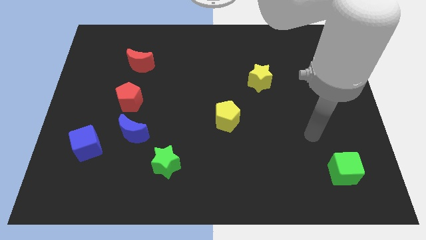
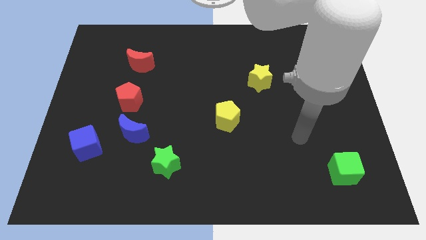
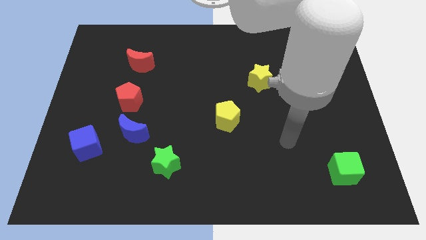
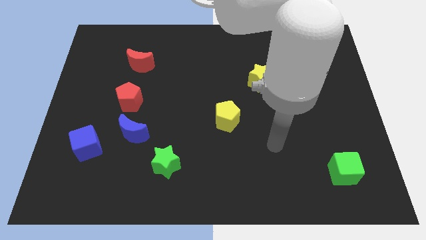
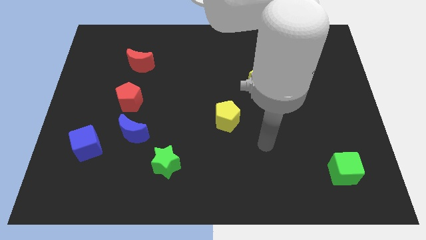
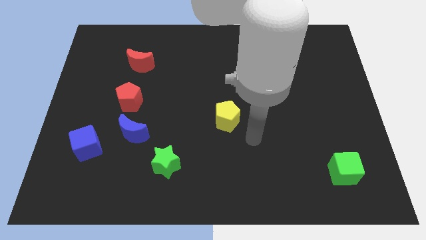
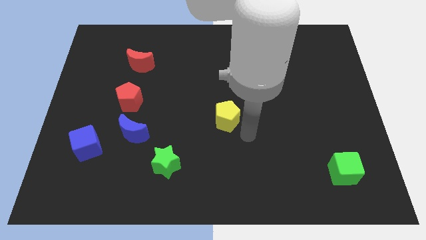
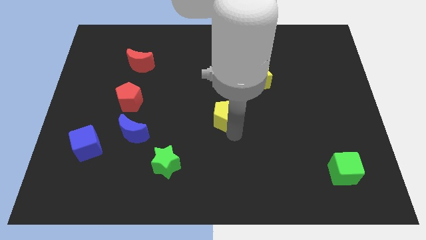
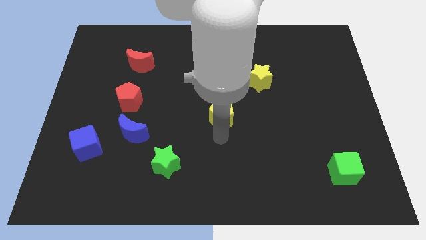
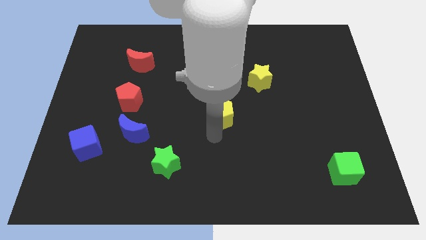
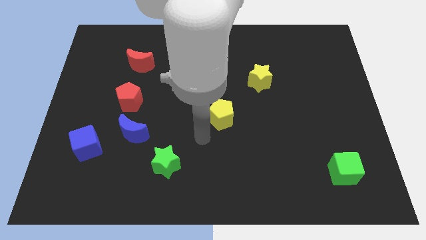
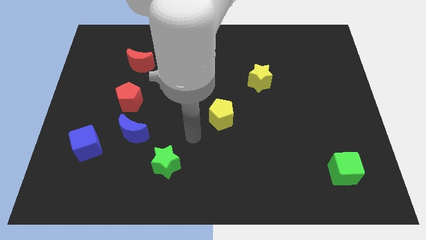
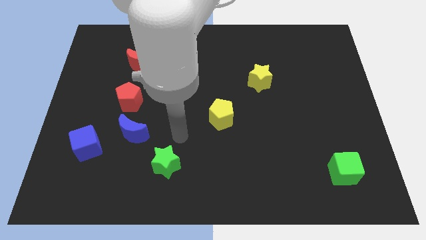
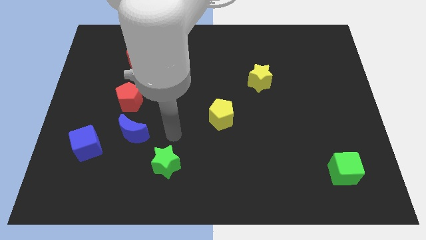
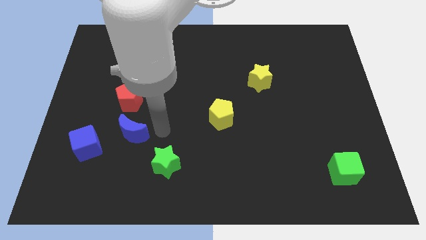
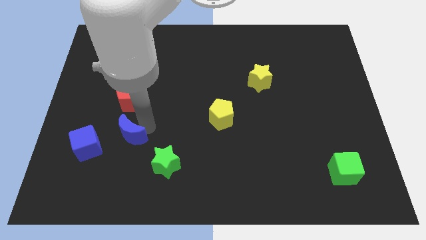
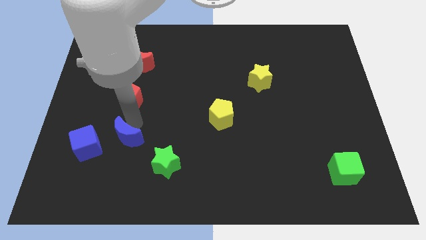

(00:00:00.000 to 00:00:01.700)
move the red pentagon away from the blue moon

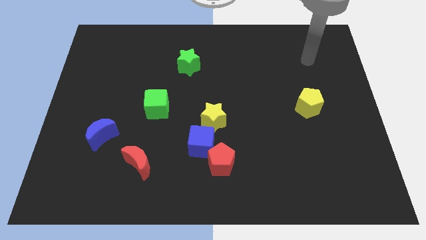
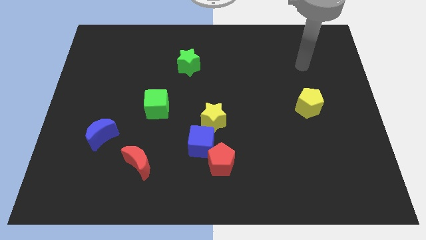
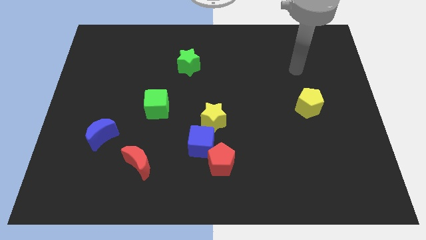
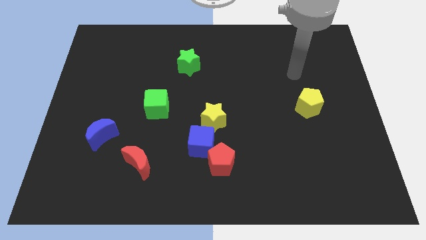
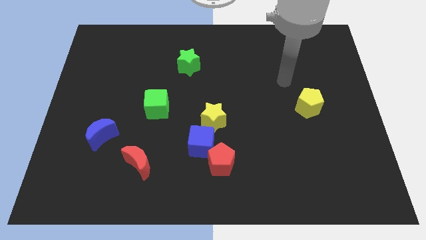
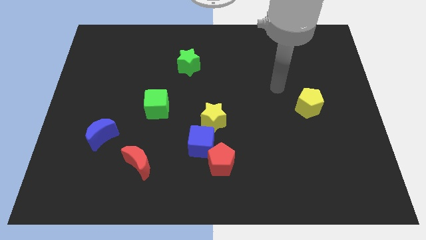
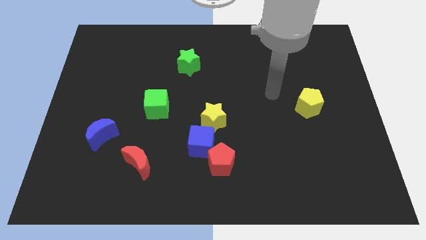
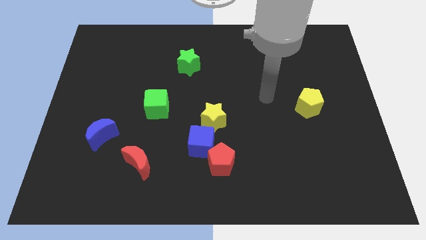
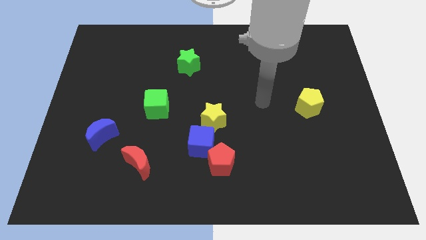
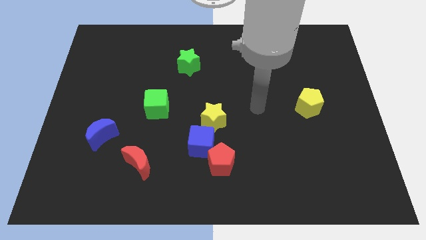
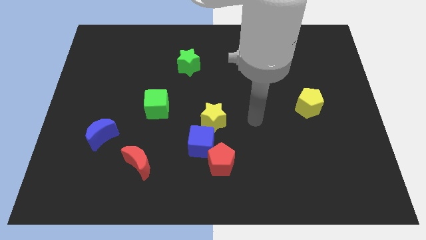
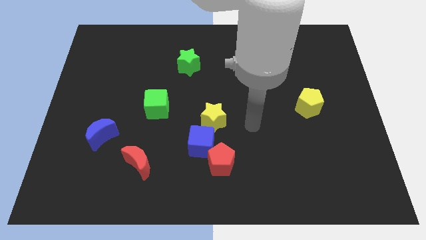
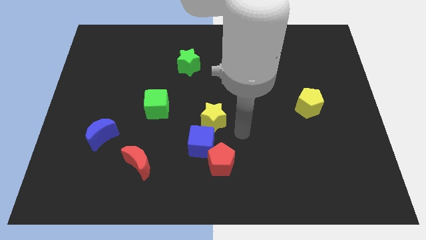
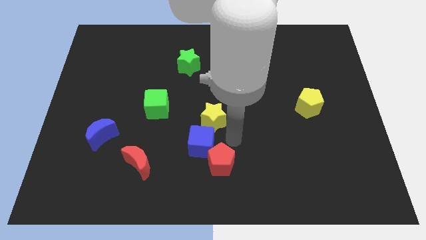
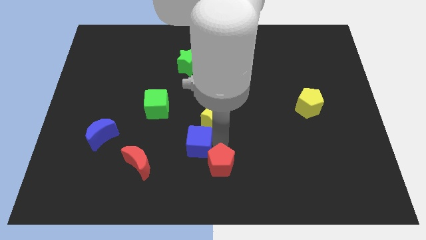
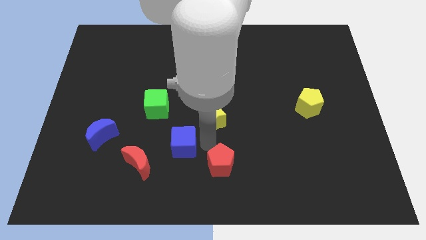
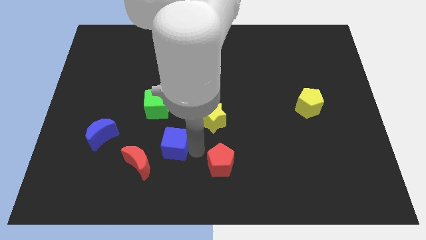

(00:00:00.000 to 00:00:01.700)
move the red pentagon away from the blue cube

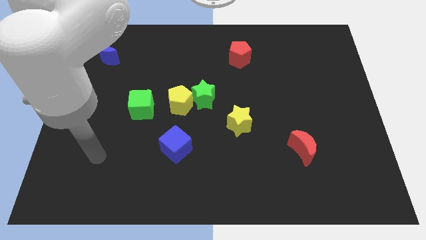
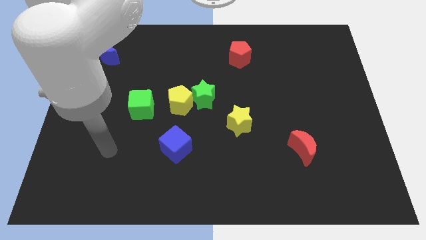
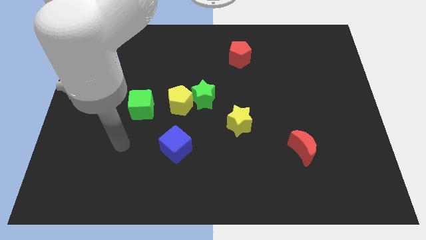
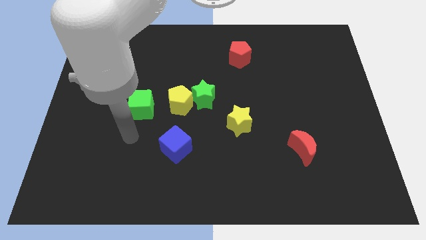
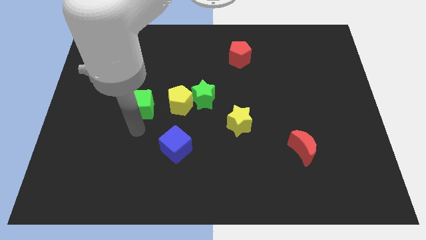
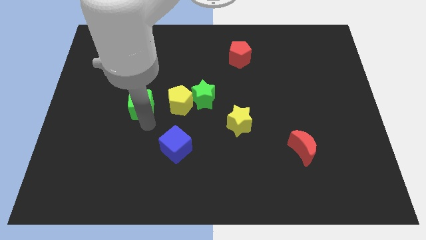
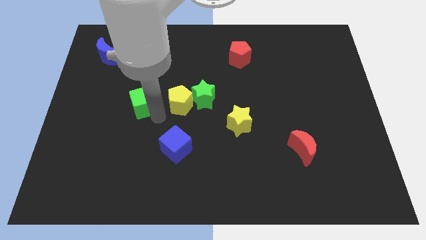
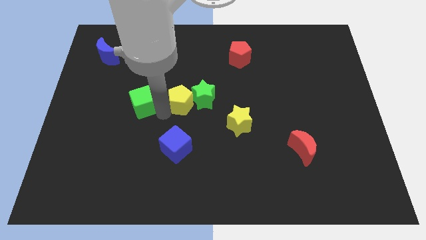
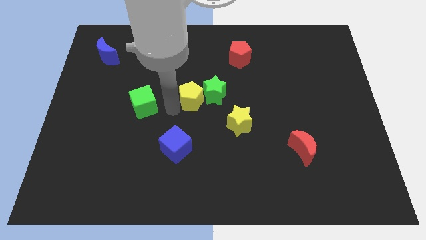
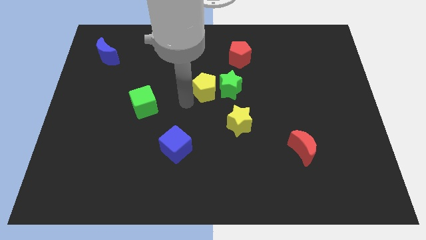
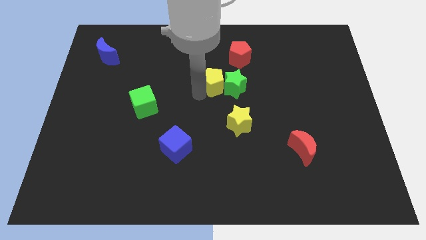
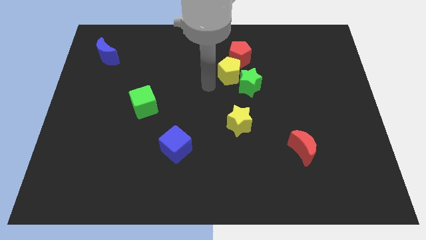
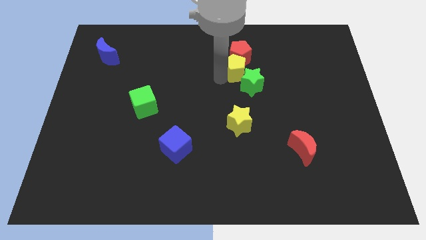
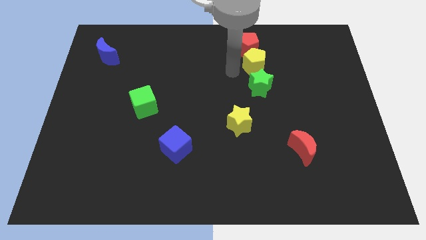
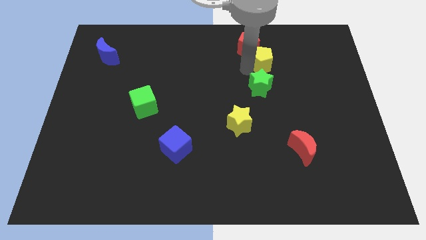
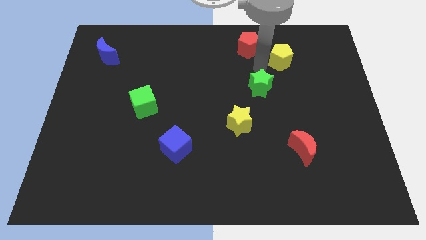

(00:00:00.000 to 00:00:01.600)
separate the green star from the yellow pentagon

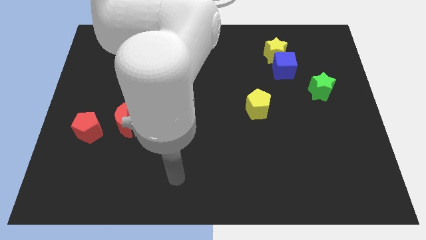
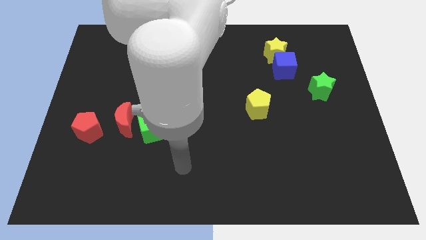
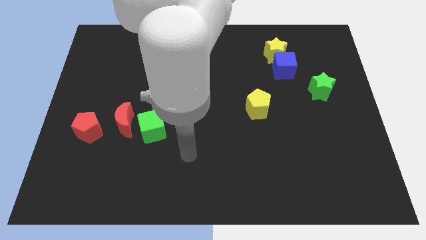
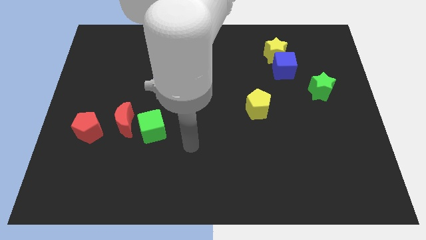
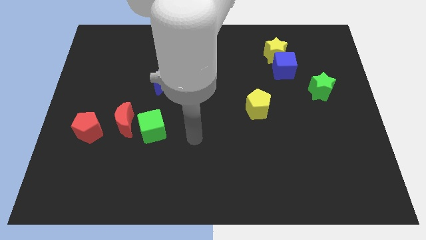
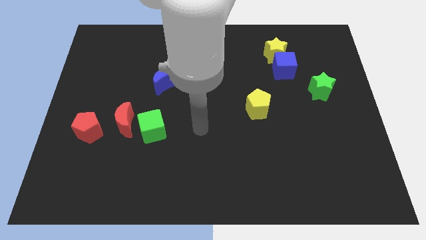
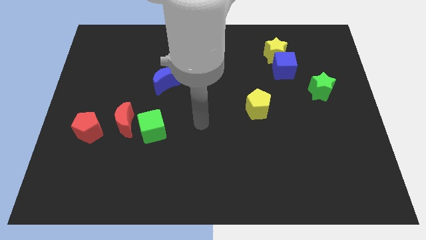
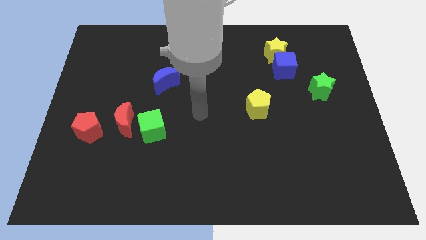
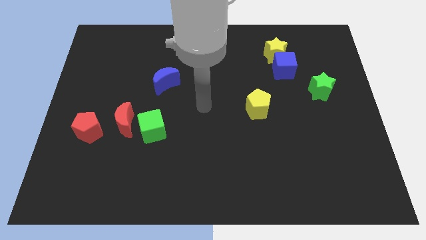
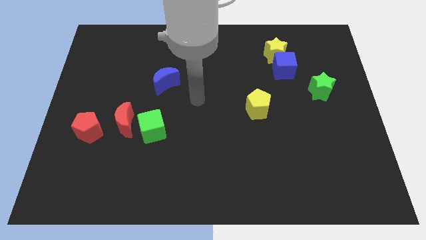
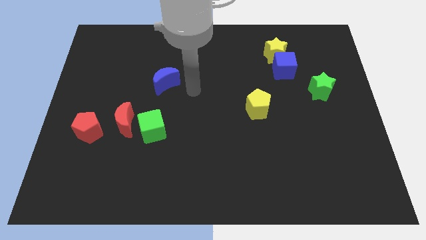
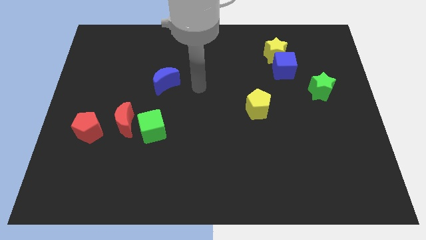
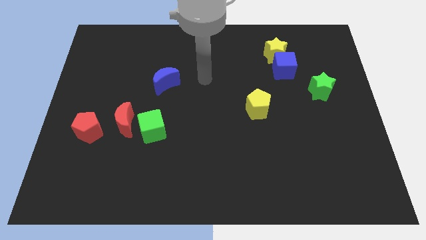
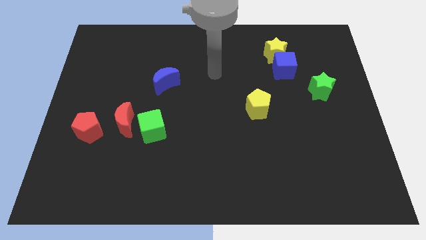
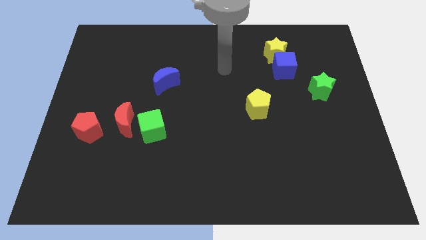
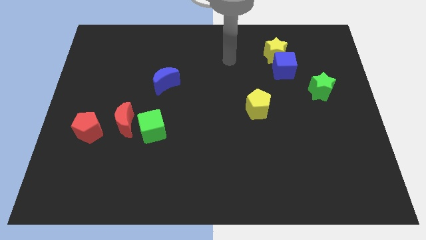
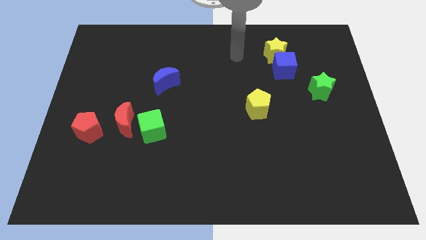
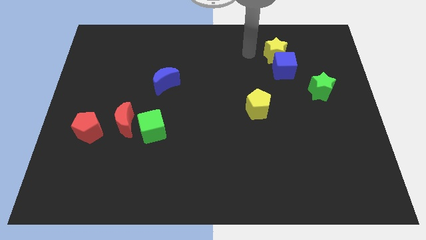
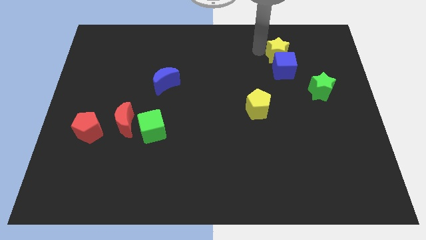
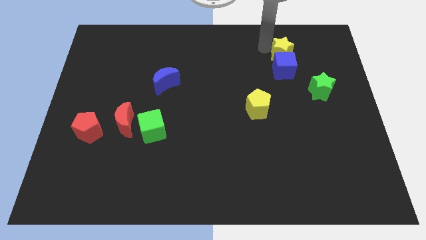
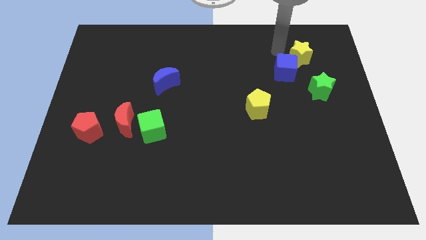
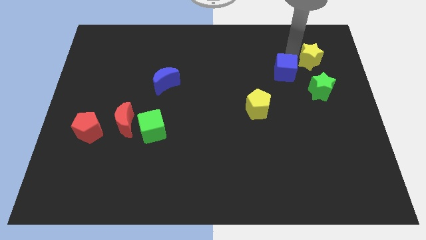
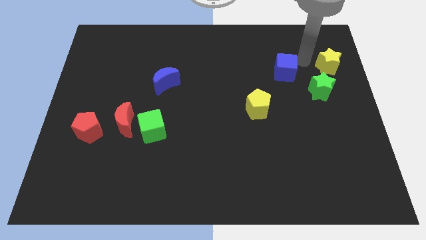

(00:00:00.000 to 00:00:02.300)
move the blue cube away from the yellow star

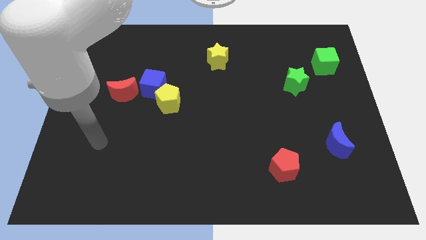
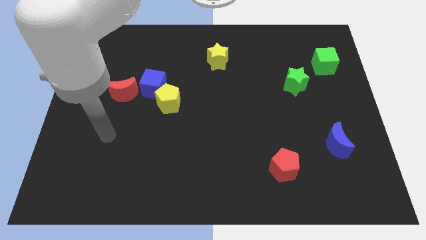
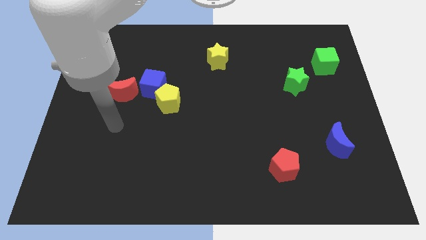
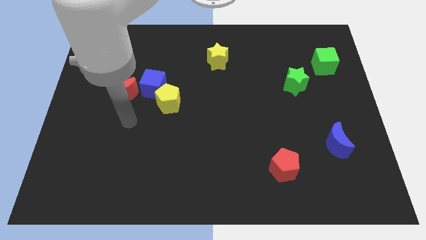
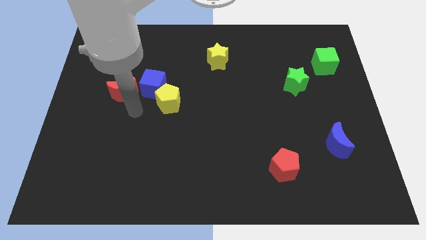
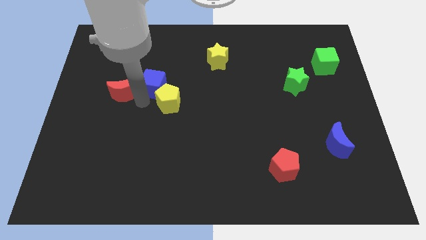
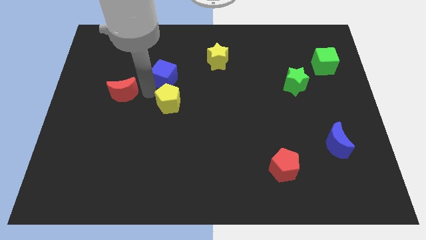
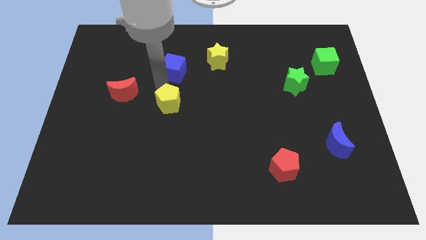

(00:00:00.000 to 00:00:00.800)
move the yellow pentagon away from the blue cube

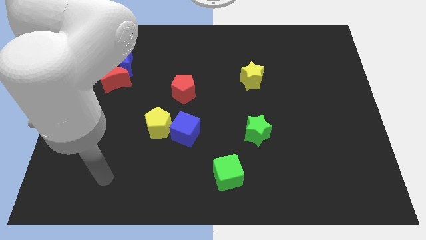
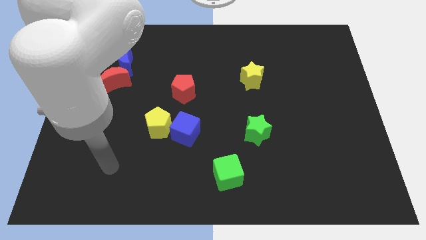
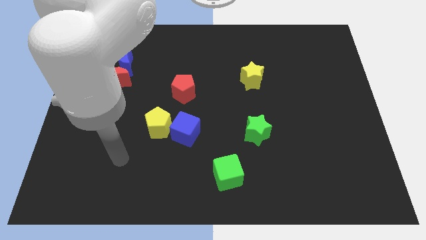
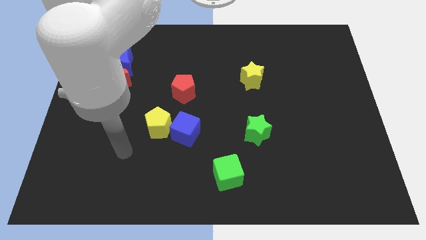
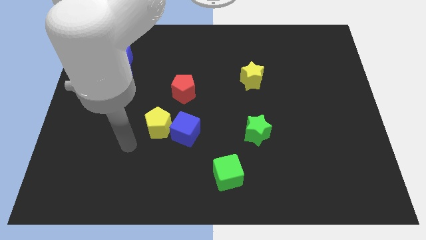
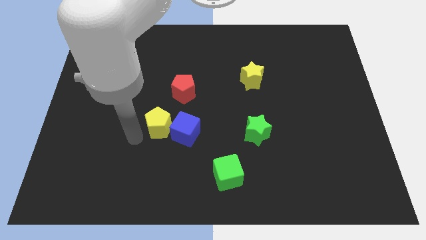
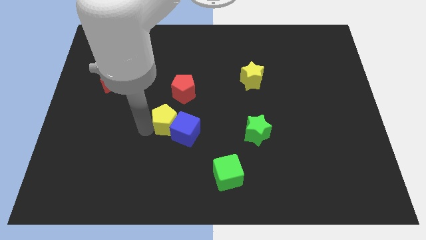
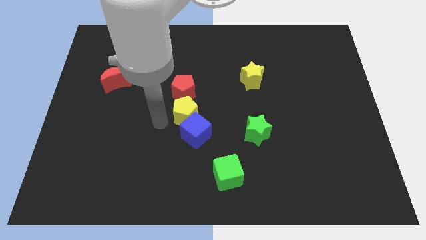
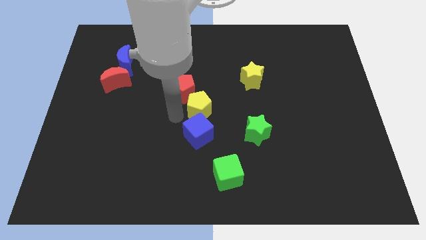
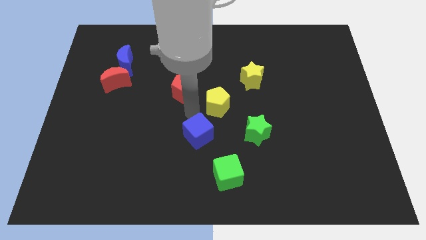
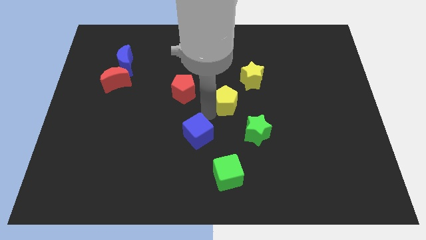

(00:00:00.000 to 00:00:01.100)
pull the blue cube apart from the yellow pentagon
